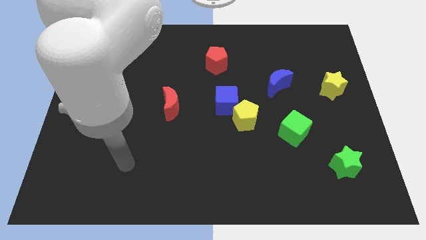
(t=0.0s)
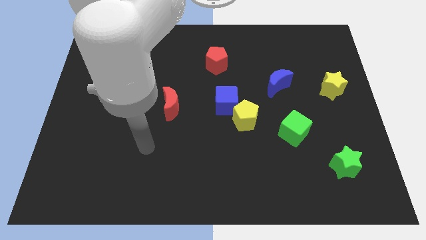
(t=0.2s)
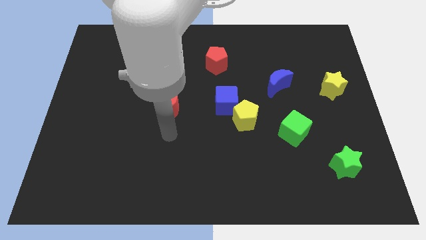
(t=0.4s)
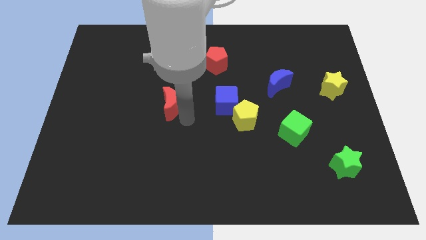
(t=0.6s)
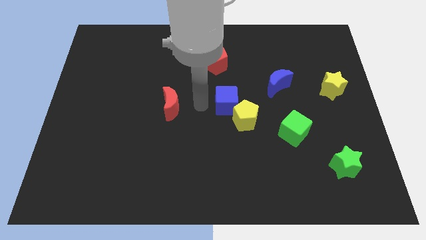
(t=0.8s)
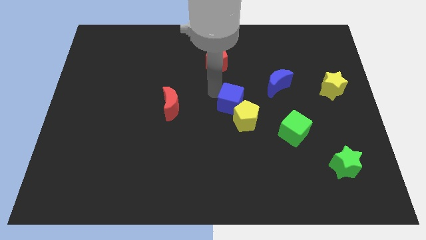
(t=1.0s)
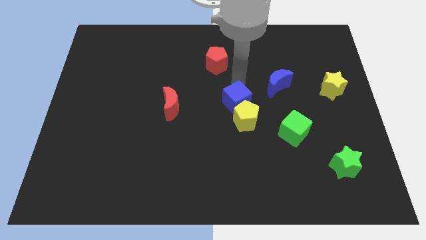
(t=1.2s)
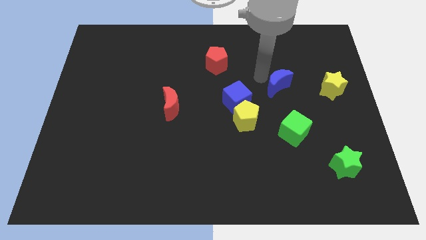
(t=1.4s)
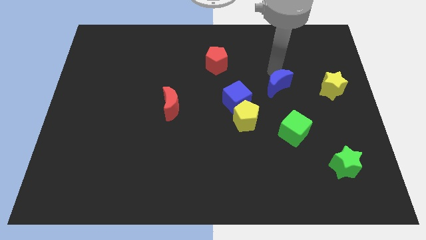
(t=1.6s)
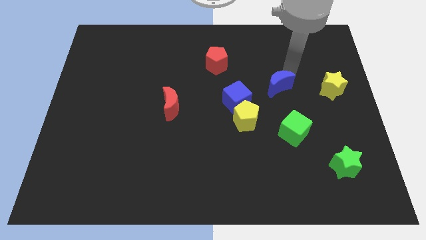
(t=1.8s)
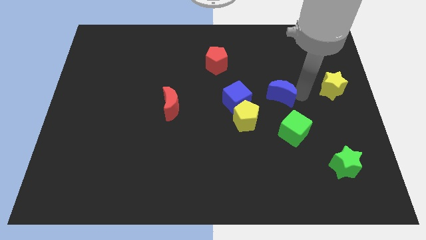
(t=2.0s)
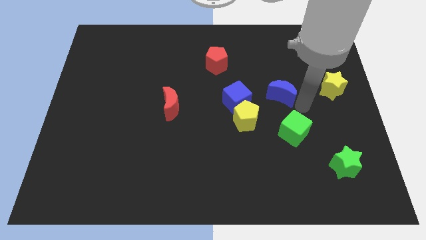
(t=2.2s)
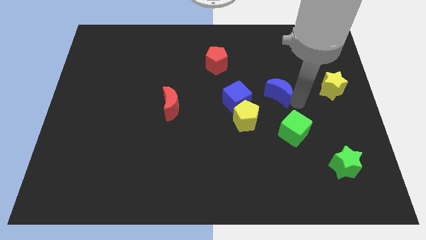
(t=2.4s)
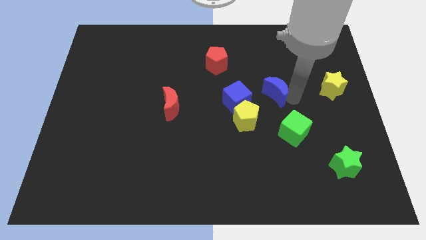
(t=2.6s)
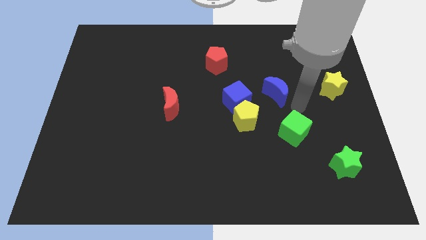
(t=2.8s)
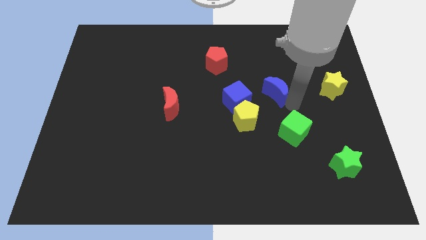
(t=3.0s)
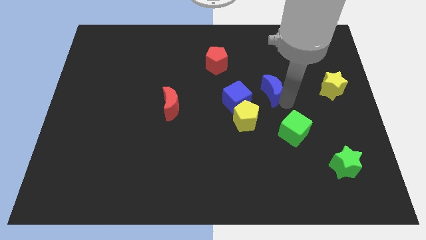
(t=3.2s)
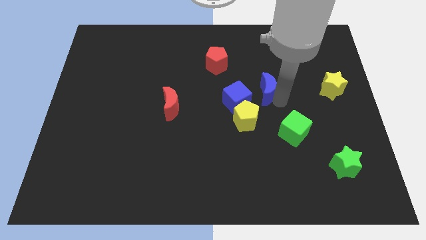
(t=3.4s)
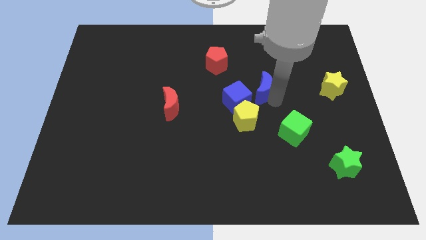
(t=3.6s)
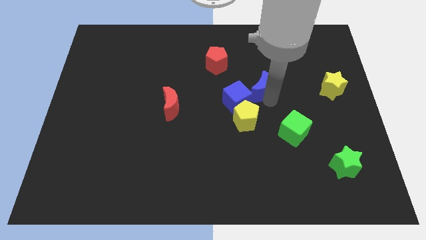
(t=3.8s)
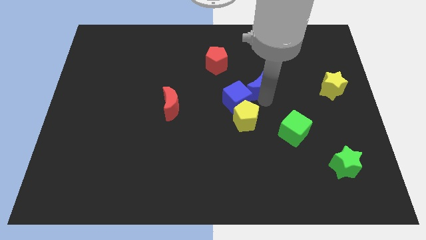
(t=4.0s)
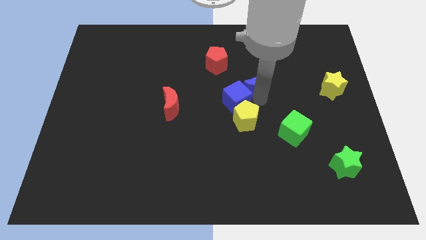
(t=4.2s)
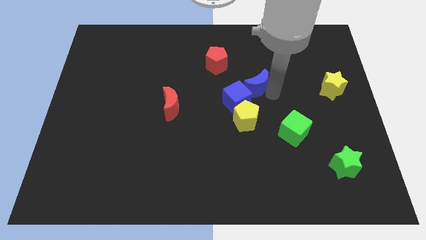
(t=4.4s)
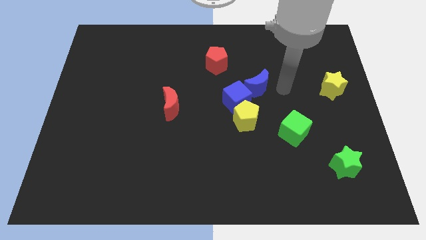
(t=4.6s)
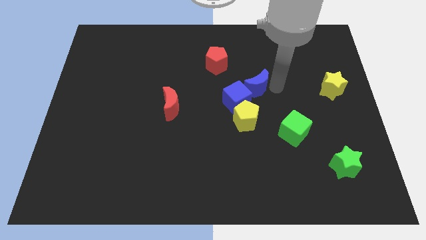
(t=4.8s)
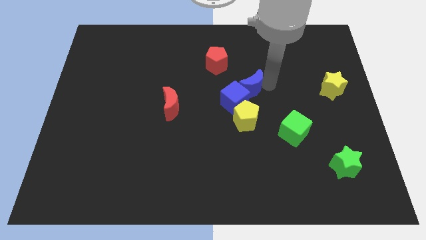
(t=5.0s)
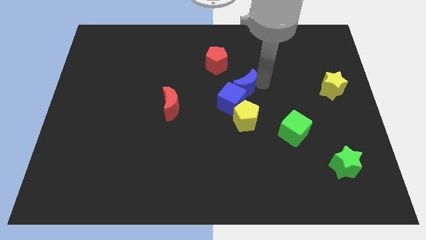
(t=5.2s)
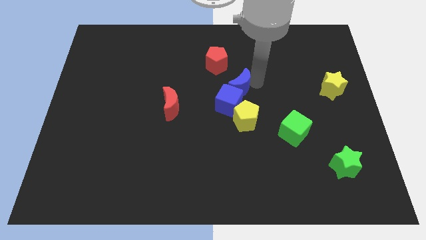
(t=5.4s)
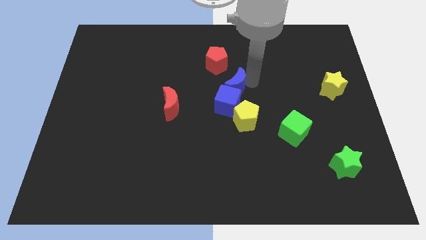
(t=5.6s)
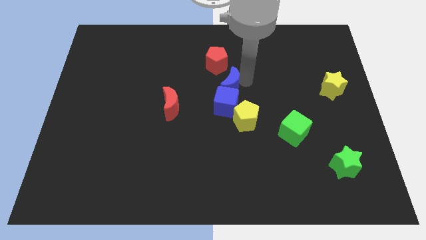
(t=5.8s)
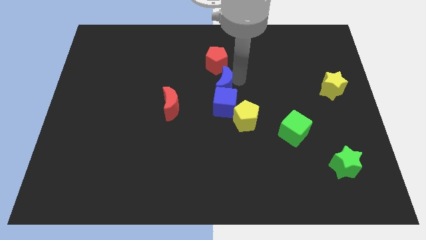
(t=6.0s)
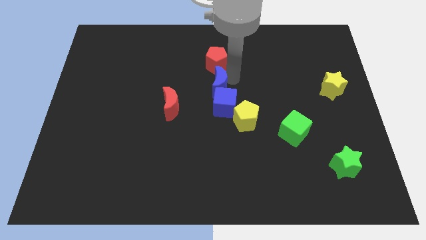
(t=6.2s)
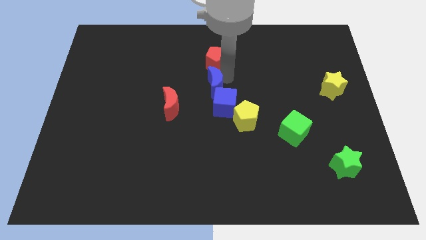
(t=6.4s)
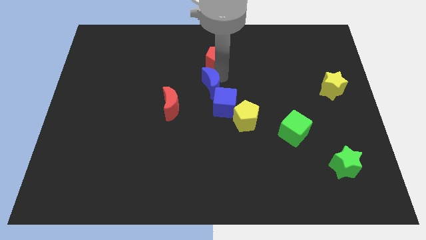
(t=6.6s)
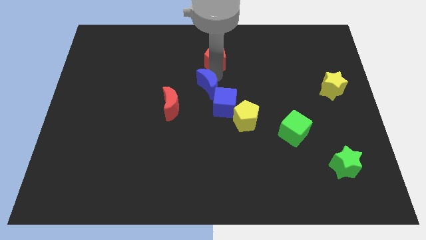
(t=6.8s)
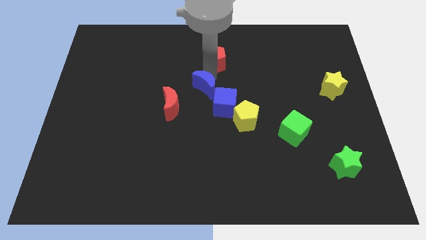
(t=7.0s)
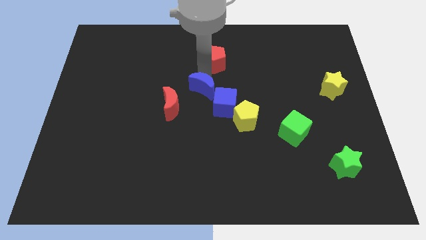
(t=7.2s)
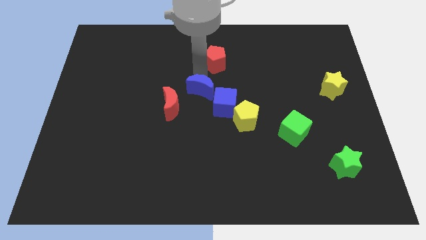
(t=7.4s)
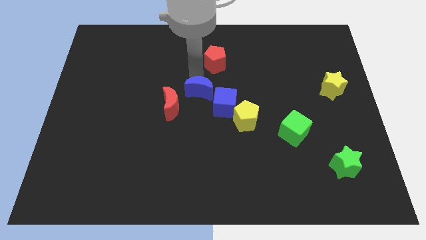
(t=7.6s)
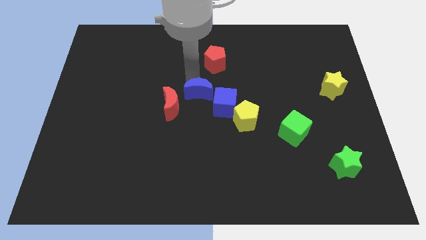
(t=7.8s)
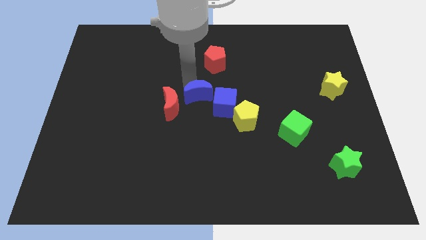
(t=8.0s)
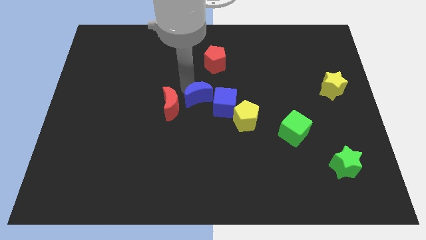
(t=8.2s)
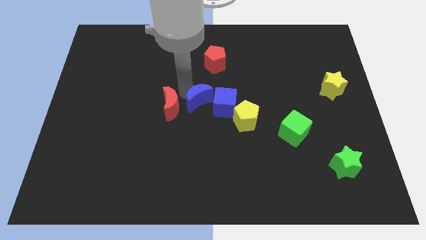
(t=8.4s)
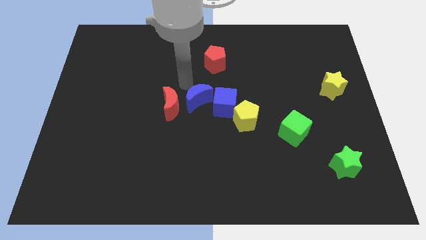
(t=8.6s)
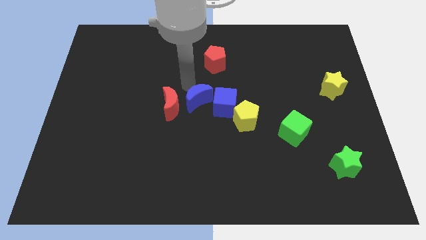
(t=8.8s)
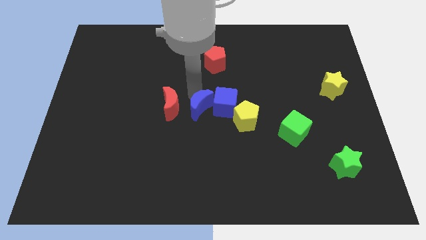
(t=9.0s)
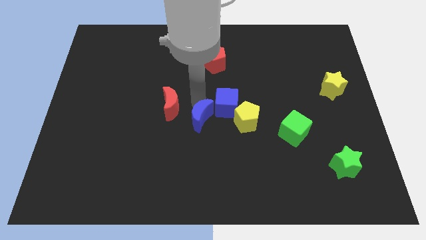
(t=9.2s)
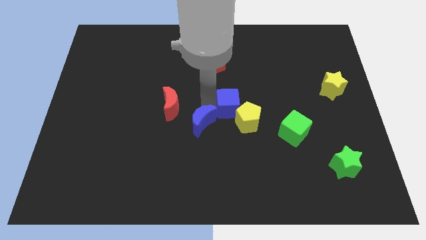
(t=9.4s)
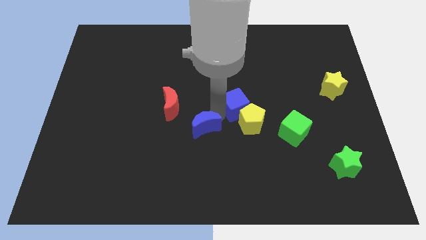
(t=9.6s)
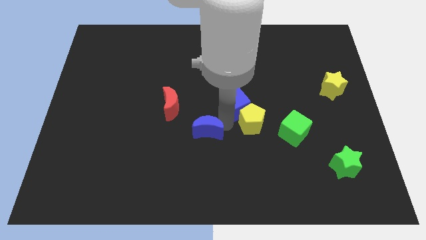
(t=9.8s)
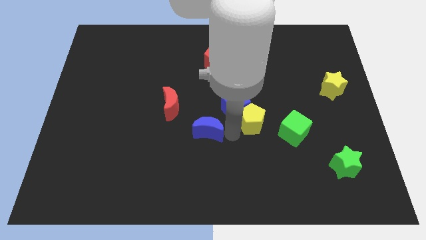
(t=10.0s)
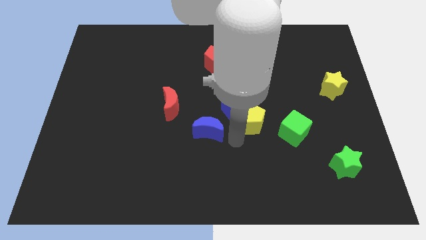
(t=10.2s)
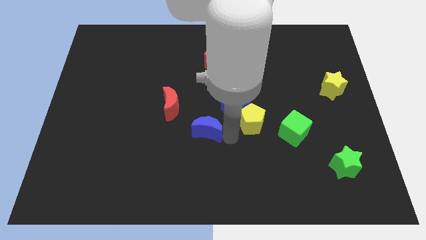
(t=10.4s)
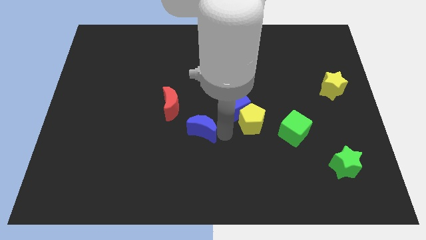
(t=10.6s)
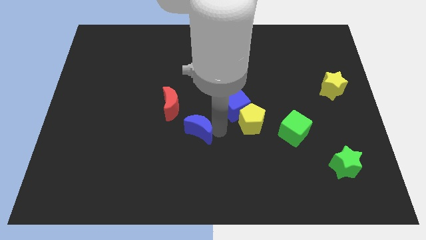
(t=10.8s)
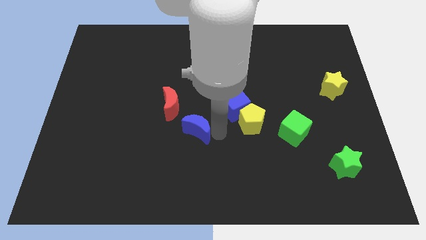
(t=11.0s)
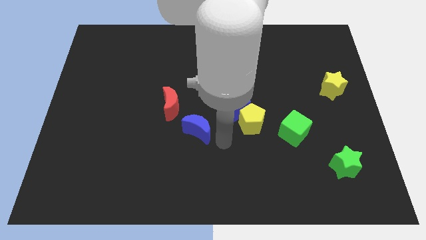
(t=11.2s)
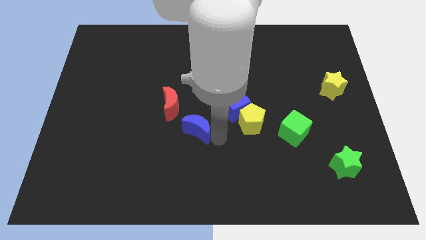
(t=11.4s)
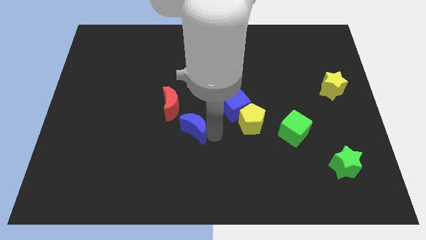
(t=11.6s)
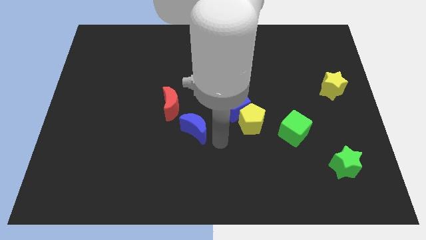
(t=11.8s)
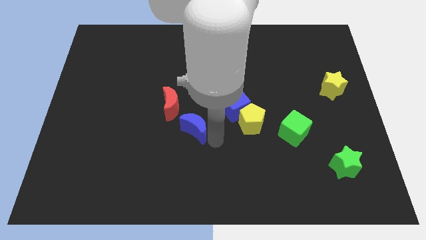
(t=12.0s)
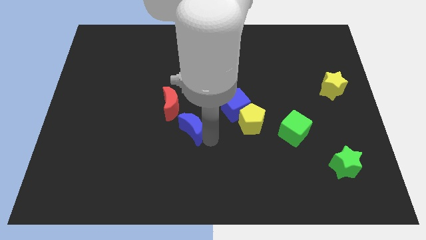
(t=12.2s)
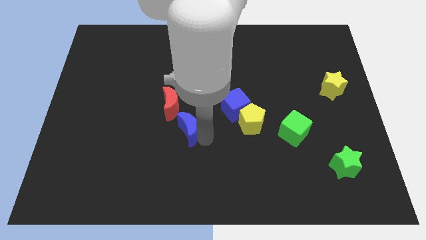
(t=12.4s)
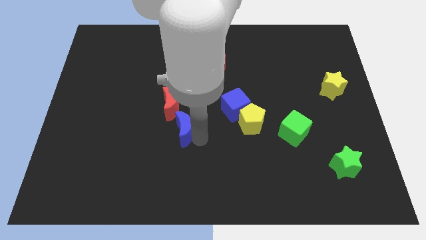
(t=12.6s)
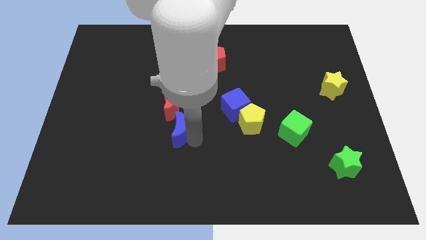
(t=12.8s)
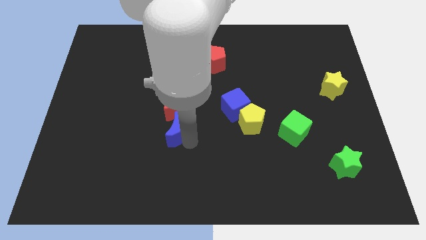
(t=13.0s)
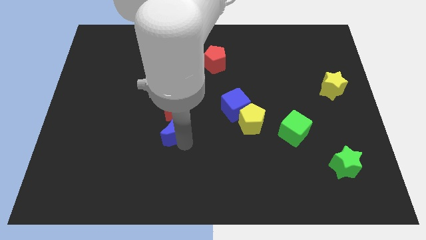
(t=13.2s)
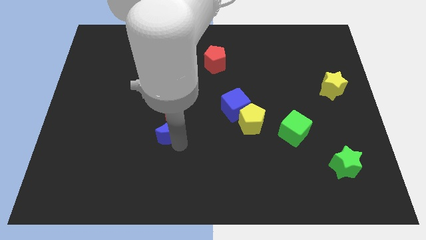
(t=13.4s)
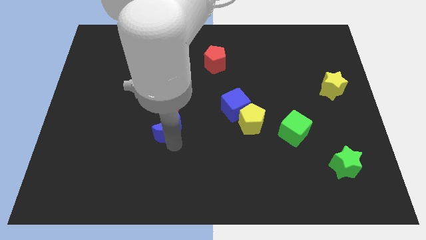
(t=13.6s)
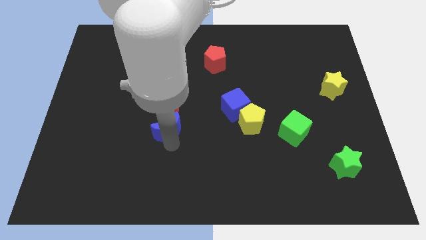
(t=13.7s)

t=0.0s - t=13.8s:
put the blue moon diagonally down and to the left of the red moon

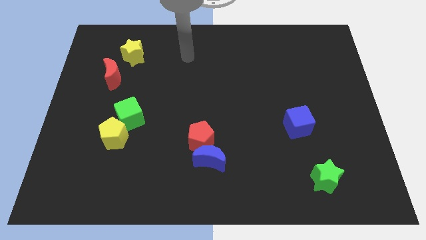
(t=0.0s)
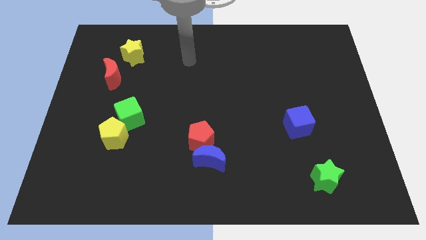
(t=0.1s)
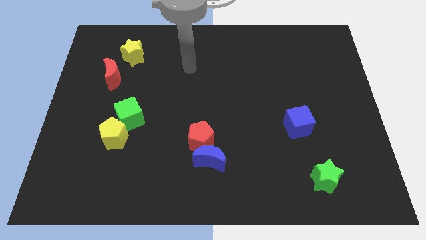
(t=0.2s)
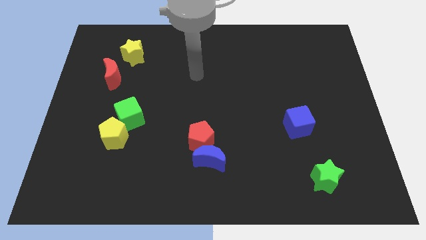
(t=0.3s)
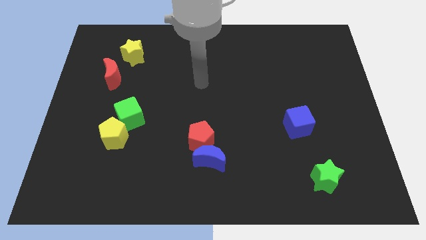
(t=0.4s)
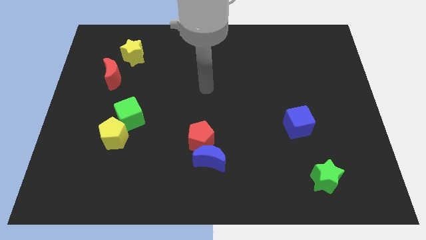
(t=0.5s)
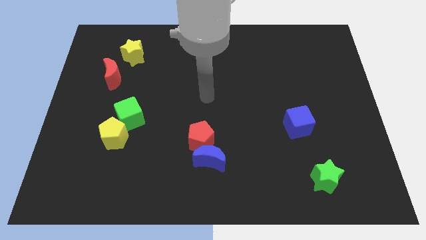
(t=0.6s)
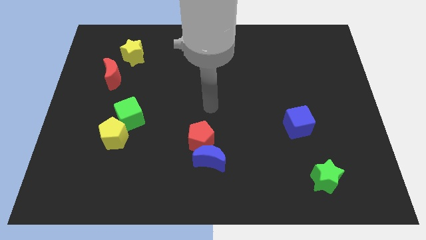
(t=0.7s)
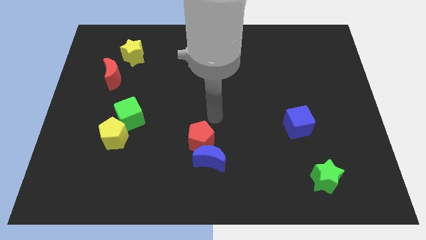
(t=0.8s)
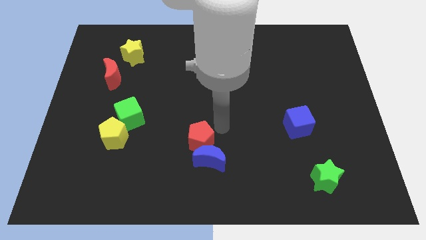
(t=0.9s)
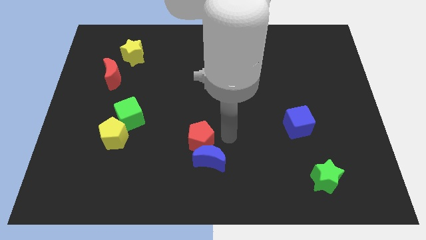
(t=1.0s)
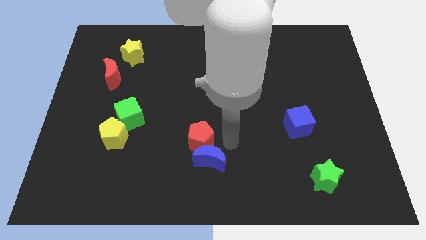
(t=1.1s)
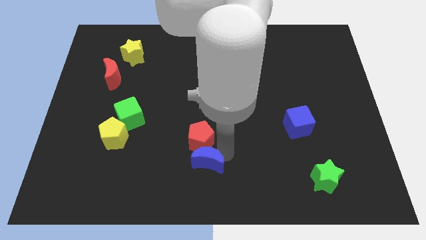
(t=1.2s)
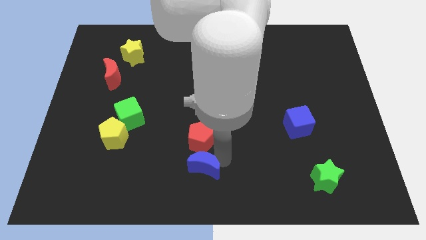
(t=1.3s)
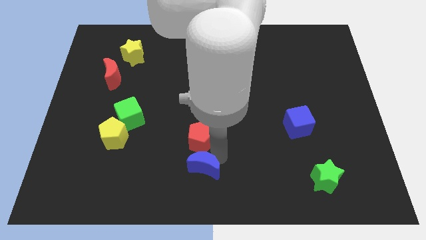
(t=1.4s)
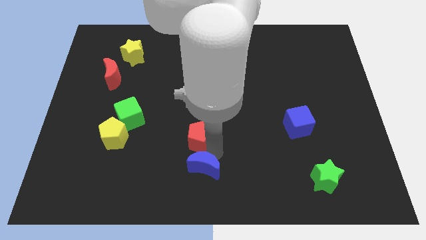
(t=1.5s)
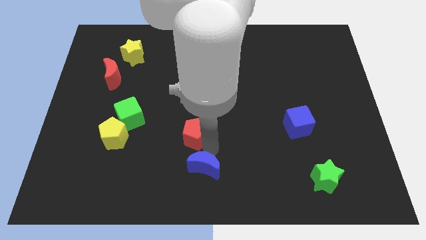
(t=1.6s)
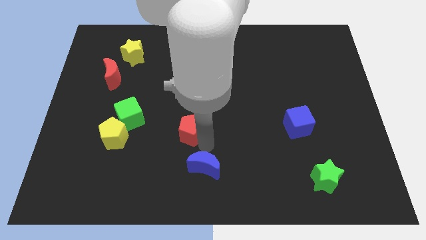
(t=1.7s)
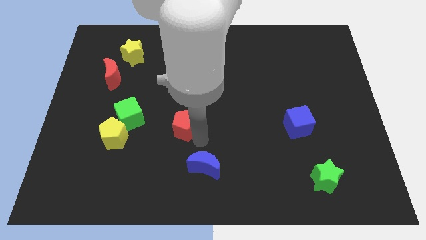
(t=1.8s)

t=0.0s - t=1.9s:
put the red pentagon right of the green cube
